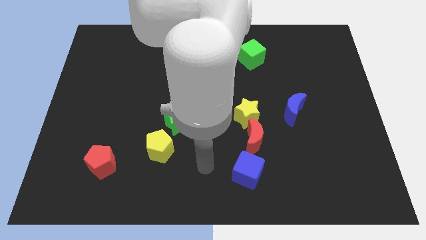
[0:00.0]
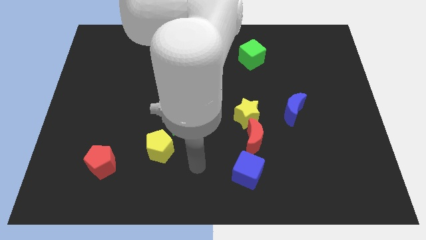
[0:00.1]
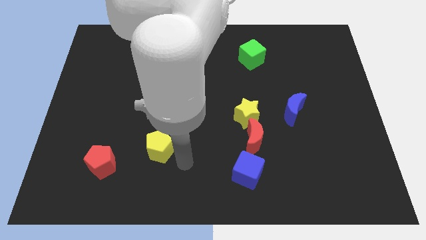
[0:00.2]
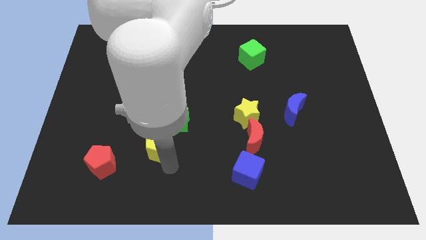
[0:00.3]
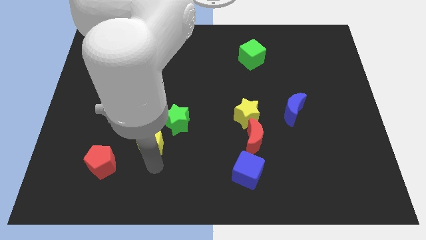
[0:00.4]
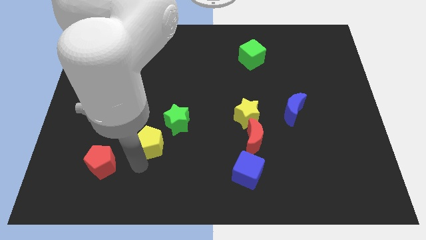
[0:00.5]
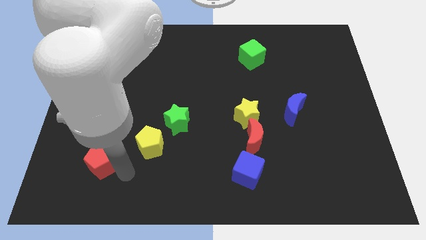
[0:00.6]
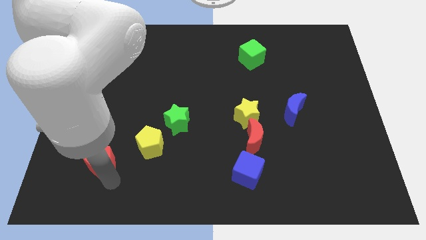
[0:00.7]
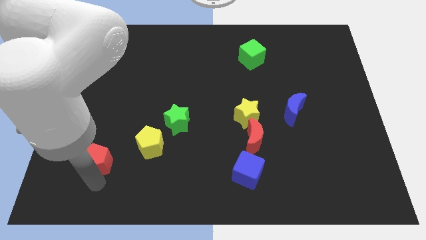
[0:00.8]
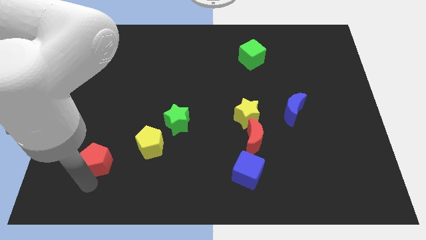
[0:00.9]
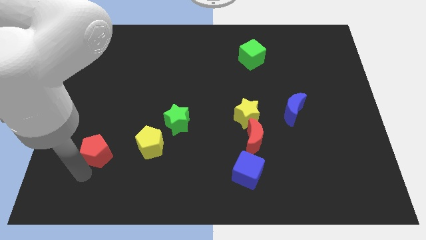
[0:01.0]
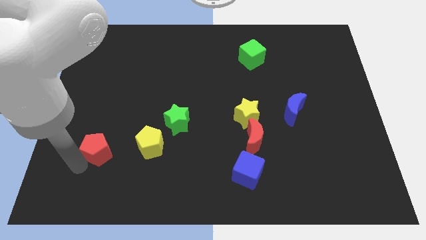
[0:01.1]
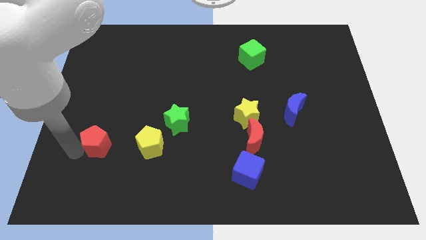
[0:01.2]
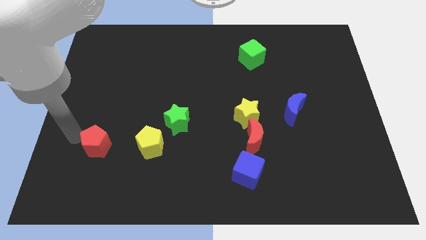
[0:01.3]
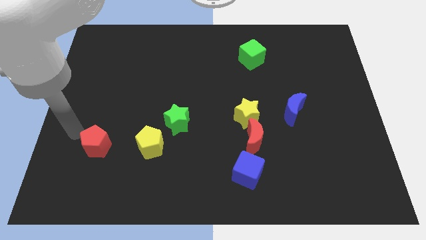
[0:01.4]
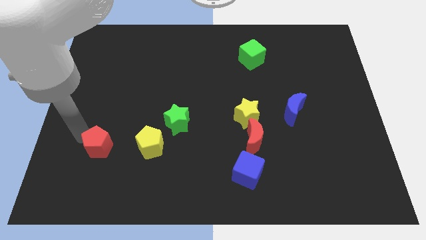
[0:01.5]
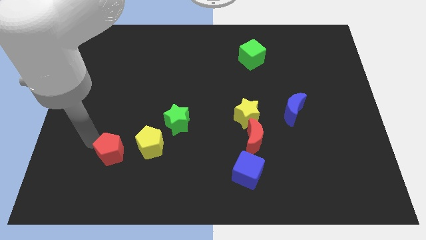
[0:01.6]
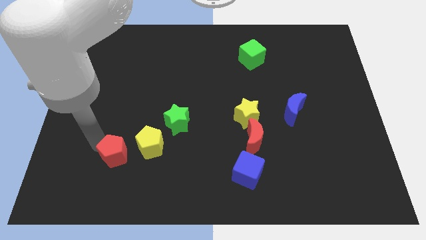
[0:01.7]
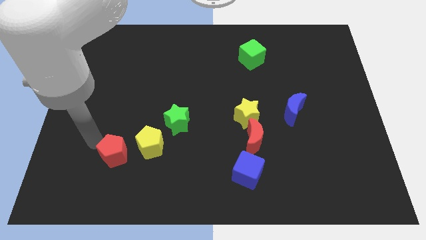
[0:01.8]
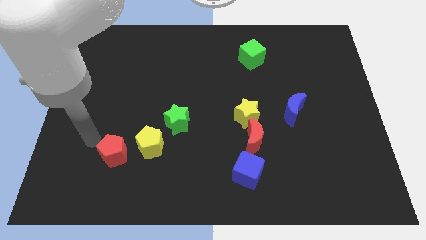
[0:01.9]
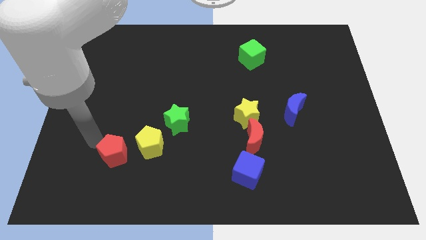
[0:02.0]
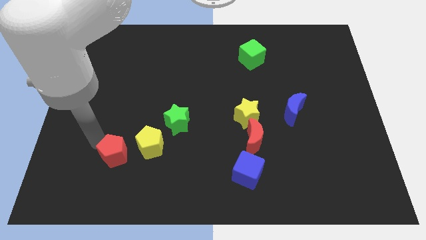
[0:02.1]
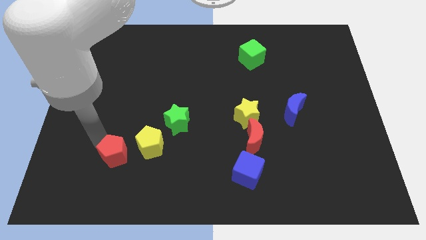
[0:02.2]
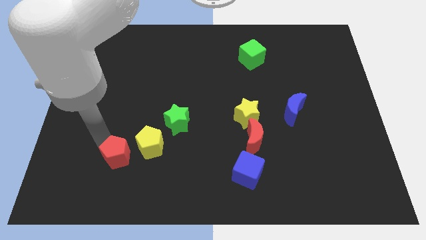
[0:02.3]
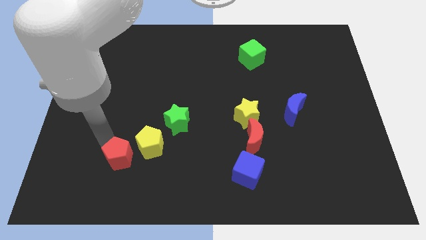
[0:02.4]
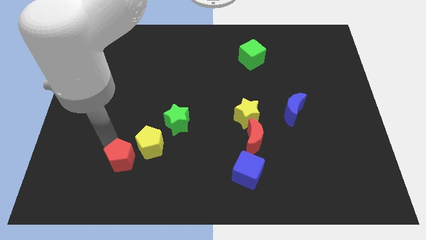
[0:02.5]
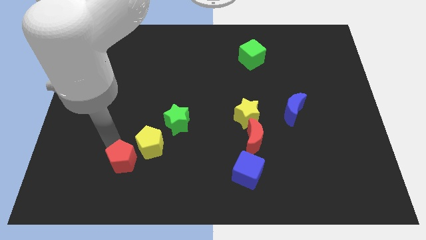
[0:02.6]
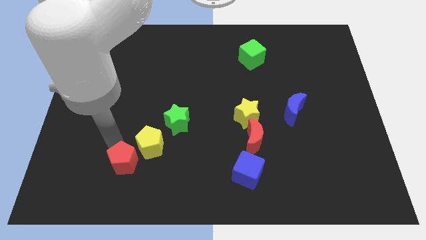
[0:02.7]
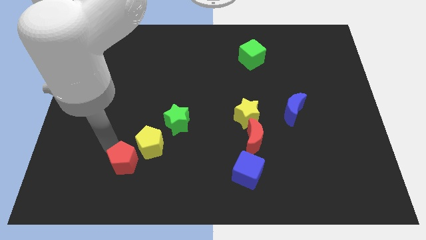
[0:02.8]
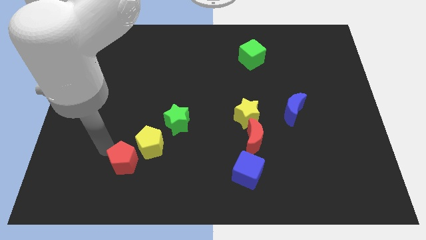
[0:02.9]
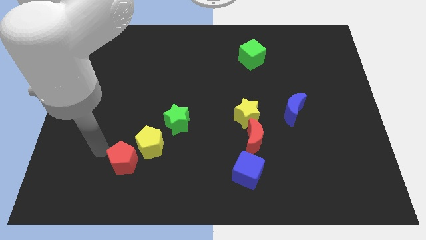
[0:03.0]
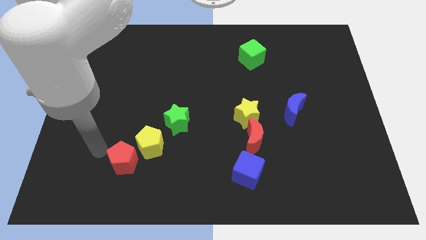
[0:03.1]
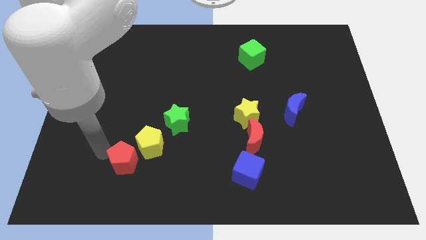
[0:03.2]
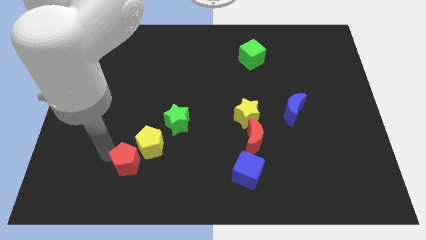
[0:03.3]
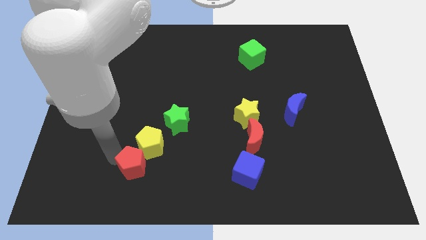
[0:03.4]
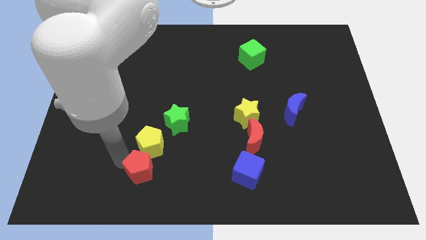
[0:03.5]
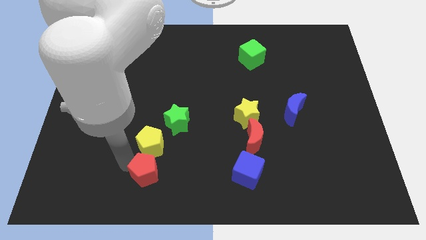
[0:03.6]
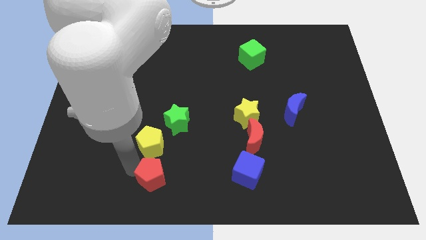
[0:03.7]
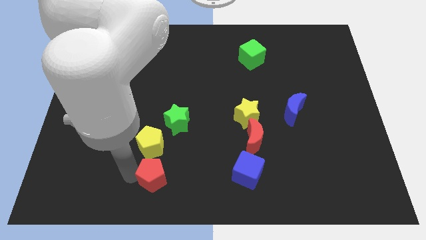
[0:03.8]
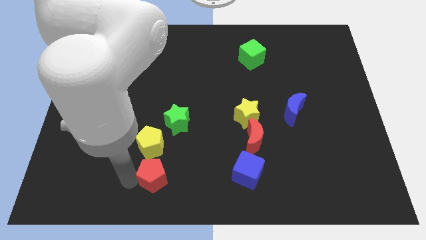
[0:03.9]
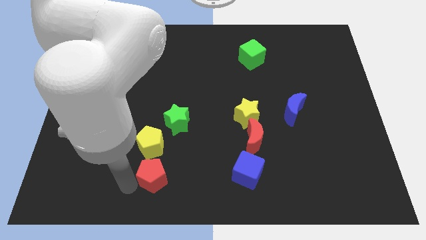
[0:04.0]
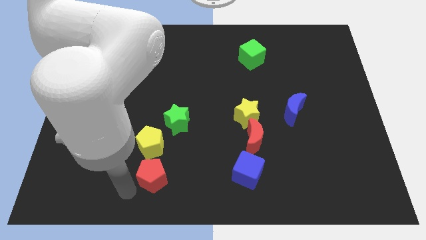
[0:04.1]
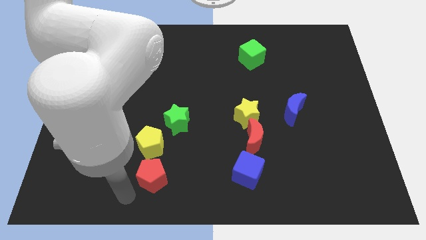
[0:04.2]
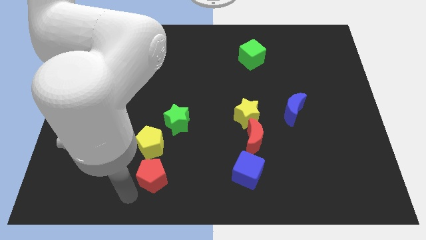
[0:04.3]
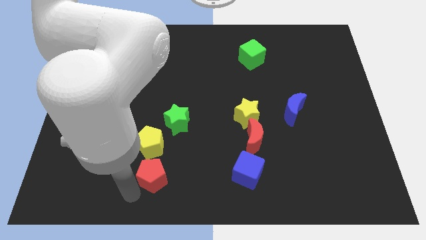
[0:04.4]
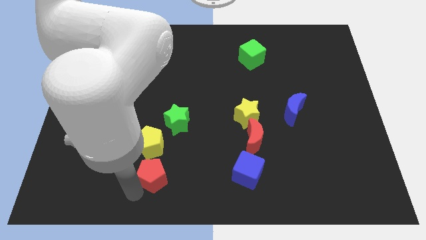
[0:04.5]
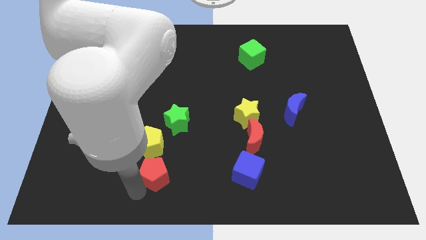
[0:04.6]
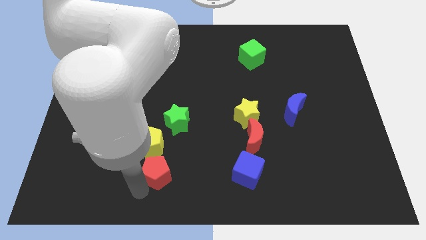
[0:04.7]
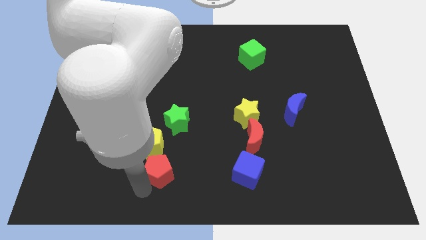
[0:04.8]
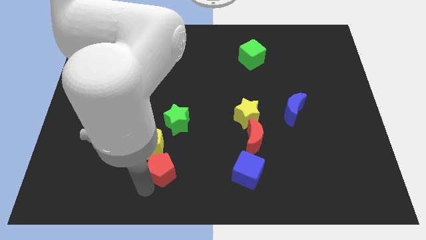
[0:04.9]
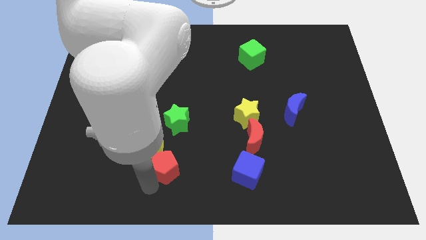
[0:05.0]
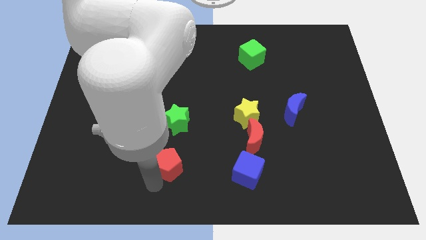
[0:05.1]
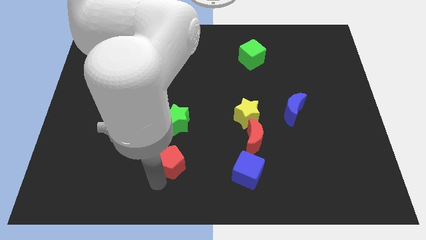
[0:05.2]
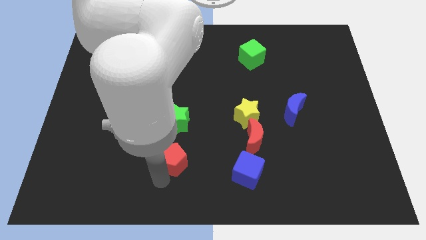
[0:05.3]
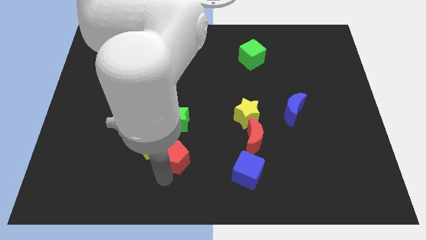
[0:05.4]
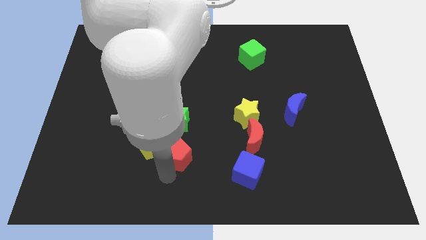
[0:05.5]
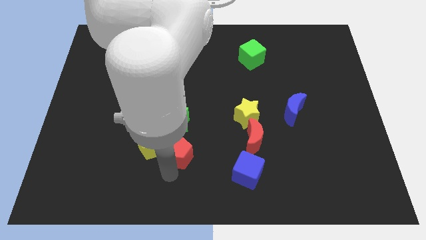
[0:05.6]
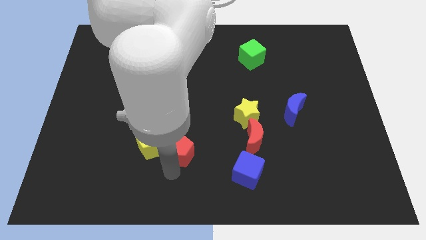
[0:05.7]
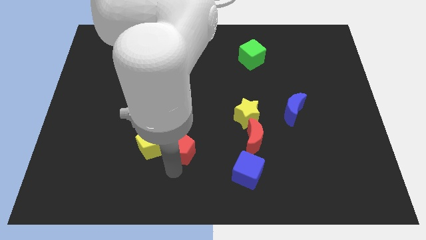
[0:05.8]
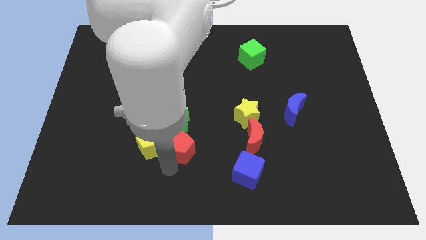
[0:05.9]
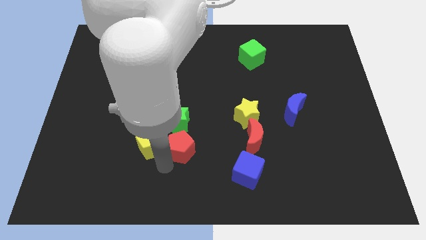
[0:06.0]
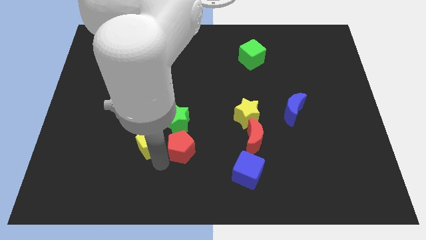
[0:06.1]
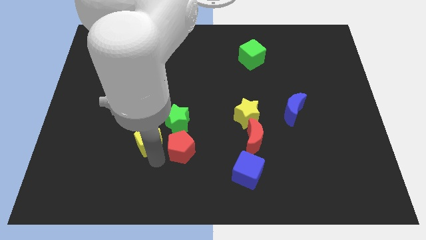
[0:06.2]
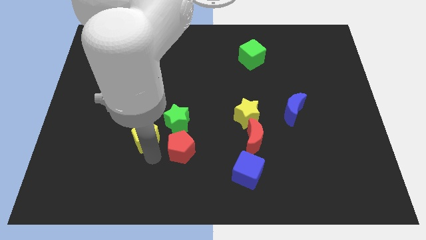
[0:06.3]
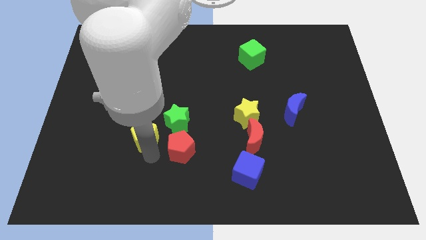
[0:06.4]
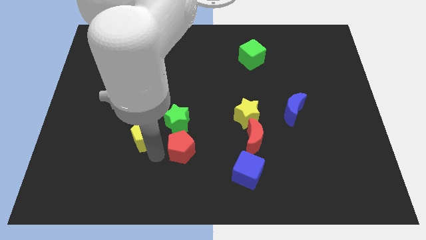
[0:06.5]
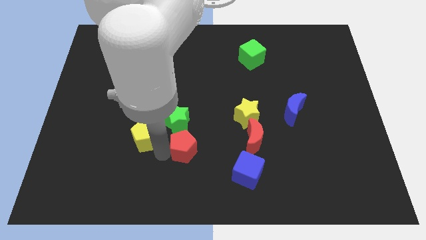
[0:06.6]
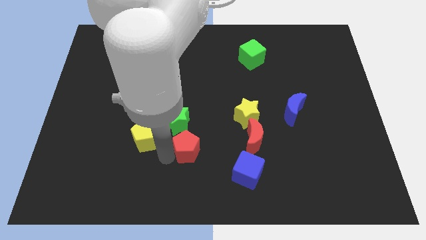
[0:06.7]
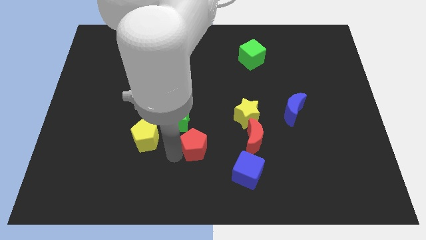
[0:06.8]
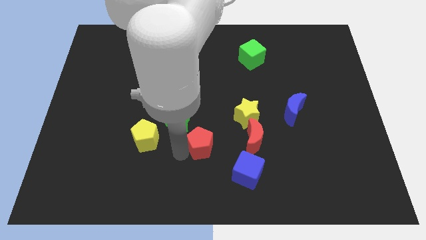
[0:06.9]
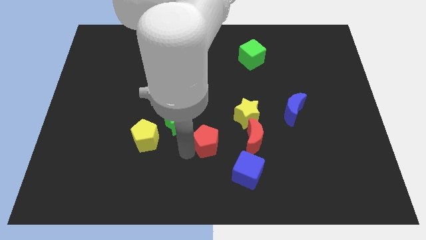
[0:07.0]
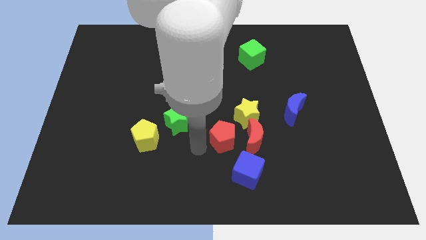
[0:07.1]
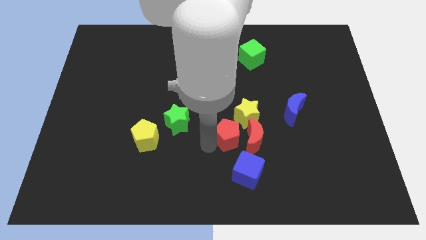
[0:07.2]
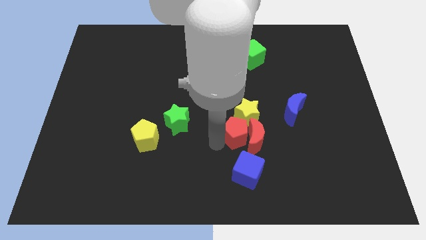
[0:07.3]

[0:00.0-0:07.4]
slide the red pentagon towards the yellow star
